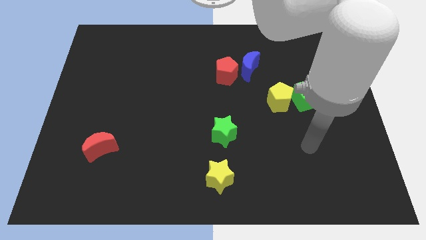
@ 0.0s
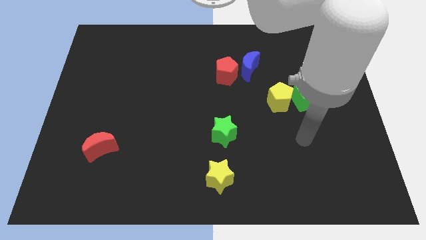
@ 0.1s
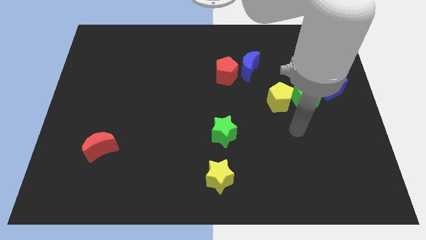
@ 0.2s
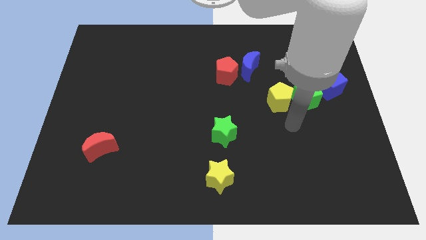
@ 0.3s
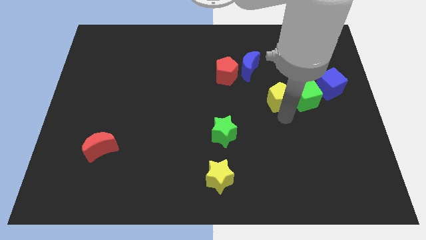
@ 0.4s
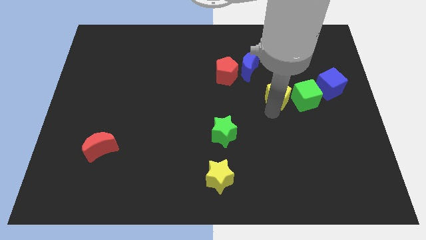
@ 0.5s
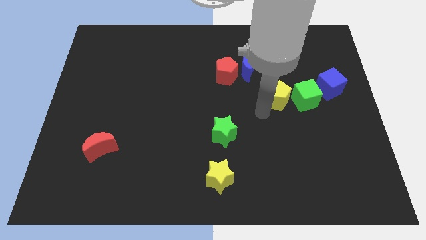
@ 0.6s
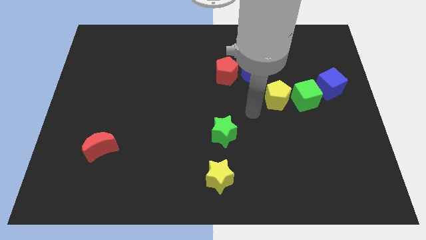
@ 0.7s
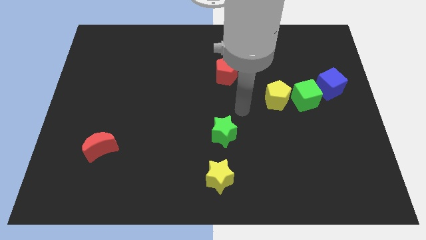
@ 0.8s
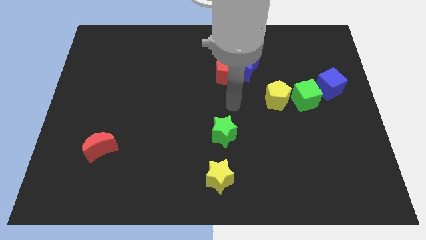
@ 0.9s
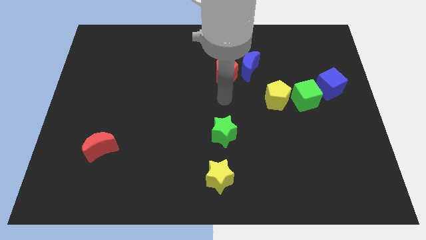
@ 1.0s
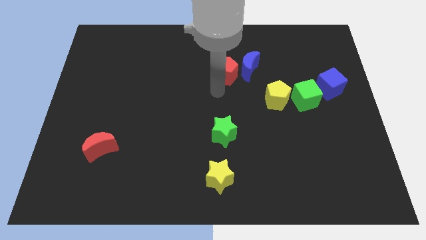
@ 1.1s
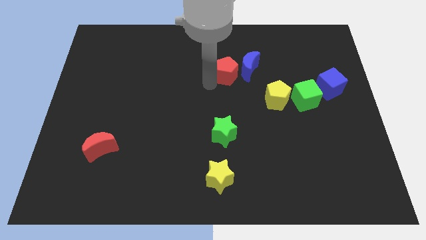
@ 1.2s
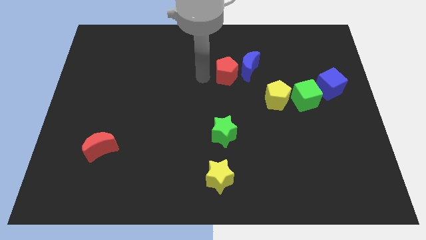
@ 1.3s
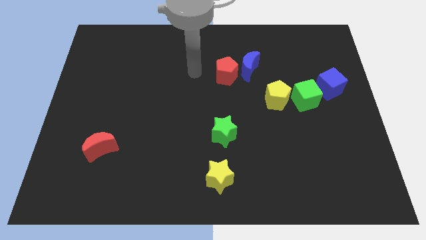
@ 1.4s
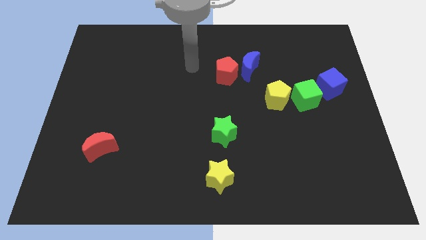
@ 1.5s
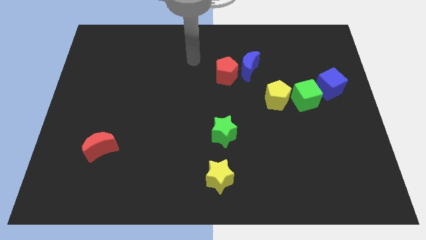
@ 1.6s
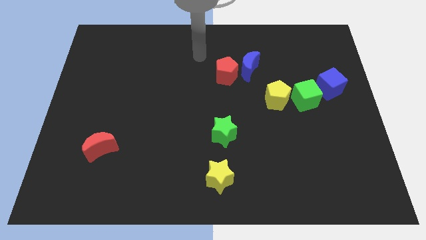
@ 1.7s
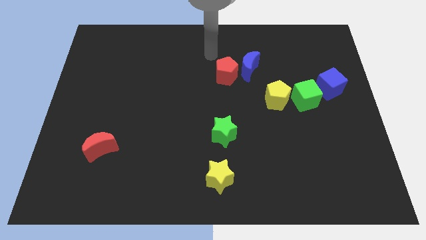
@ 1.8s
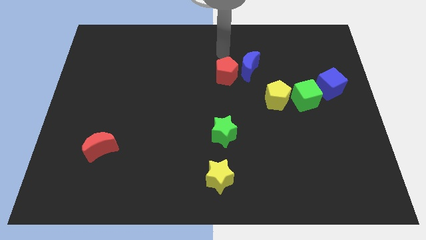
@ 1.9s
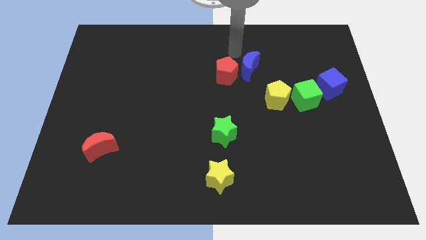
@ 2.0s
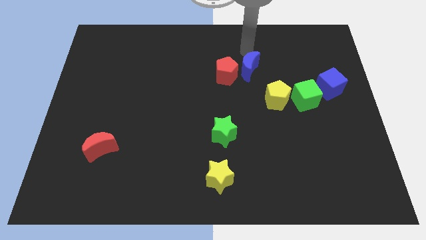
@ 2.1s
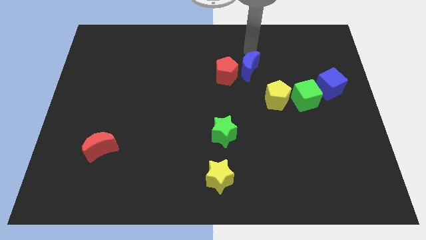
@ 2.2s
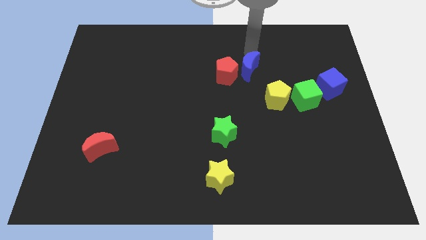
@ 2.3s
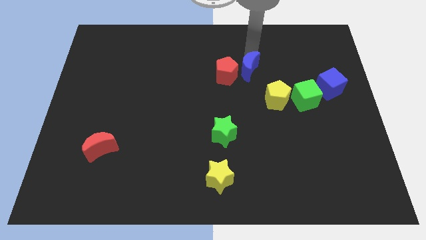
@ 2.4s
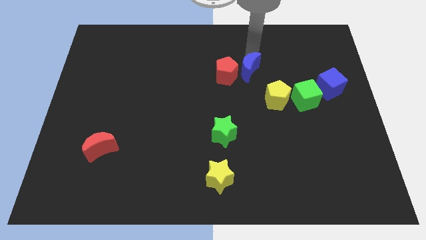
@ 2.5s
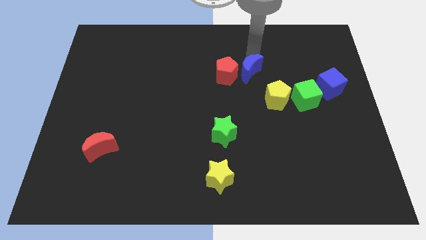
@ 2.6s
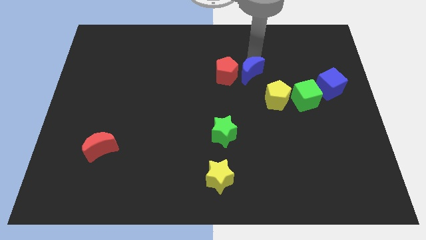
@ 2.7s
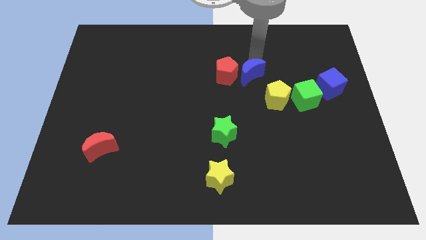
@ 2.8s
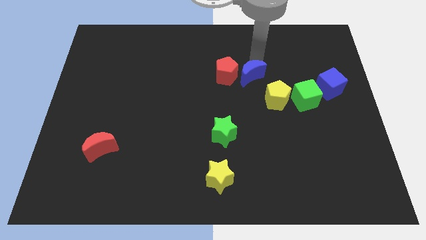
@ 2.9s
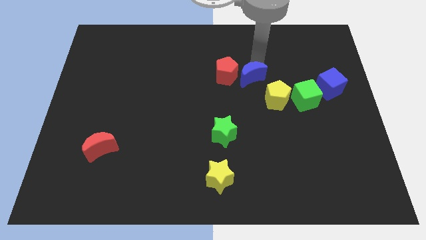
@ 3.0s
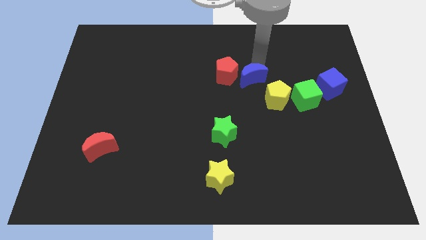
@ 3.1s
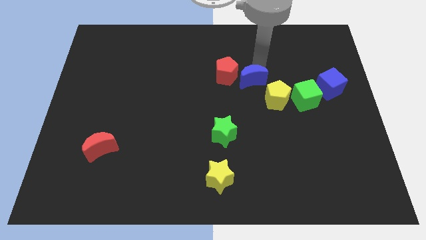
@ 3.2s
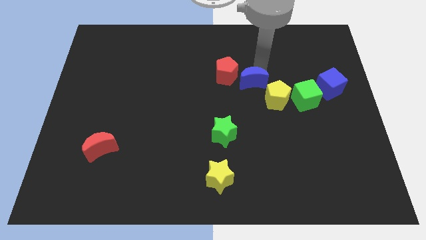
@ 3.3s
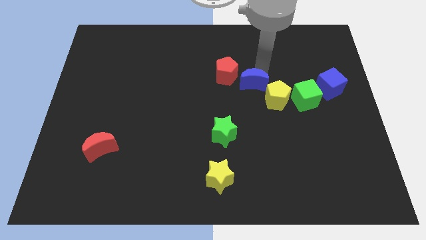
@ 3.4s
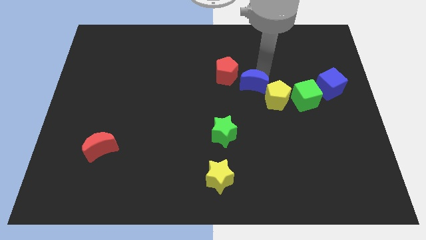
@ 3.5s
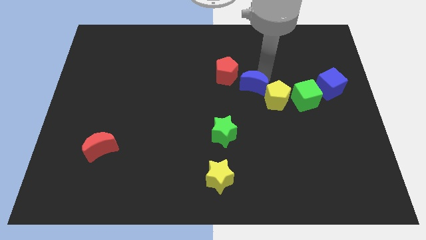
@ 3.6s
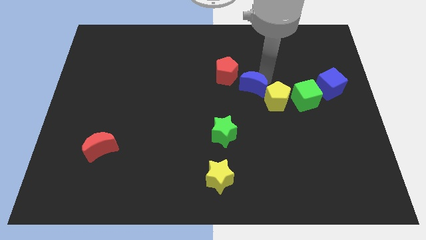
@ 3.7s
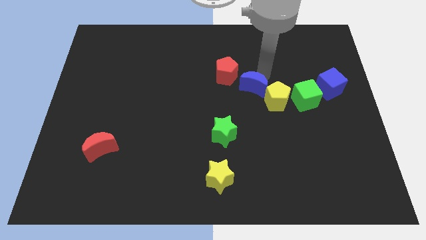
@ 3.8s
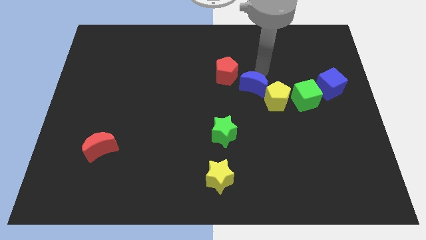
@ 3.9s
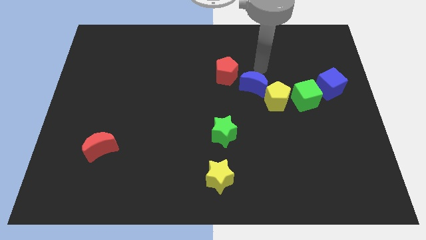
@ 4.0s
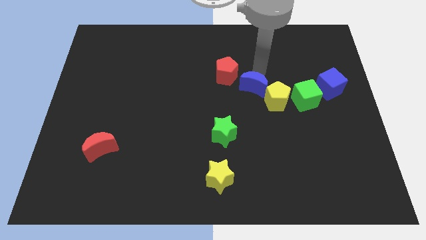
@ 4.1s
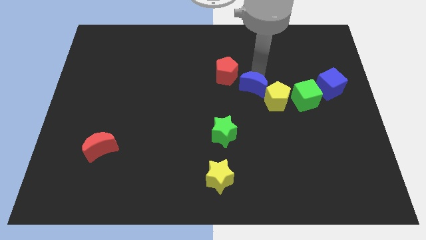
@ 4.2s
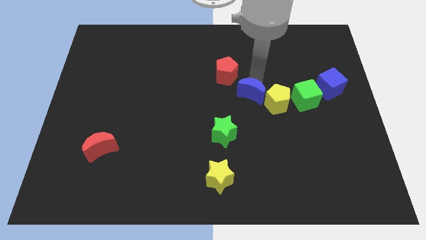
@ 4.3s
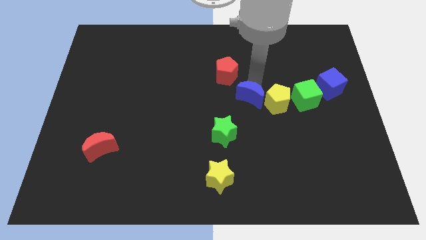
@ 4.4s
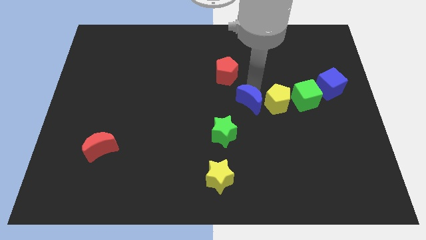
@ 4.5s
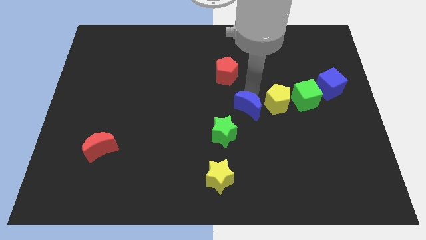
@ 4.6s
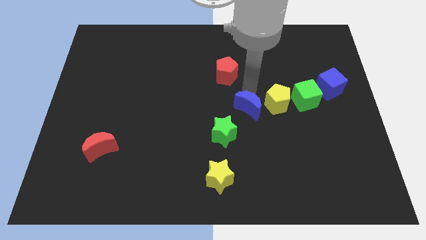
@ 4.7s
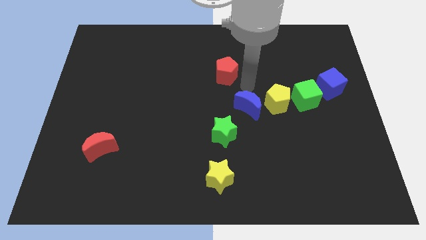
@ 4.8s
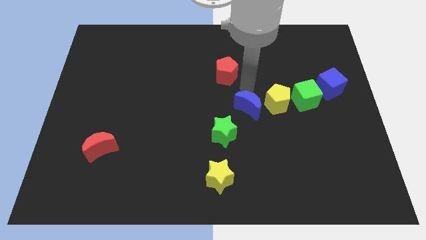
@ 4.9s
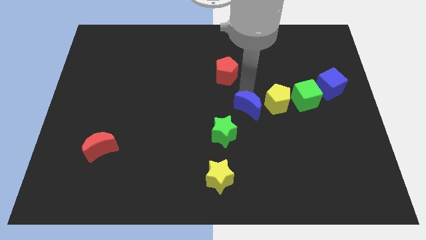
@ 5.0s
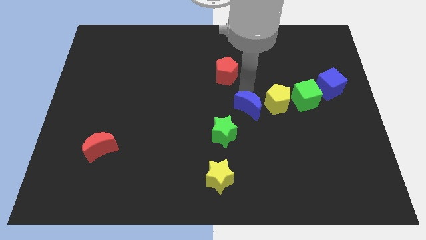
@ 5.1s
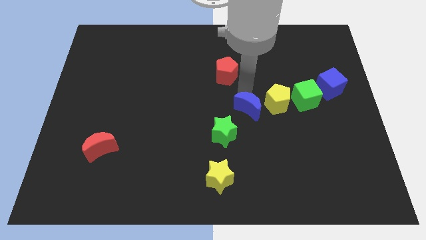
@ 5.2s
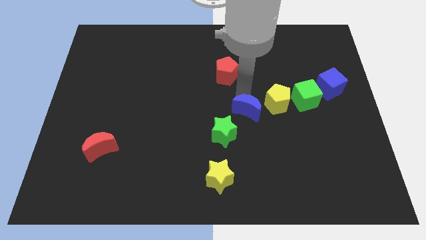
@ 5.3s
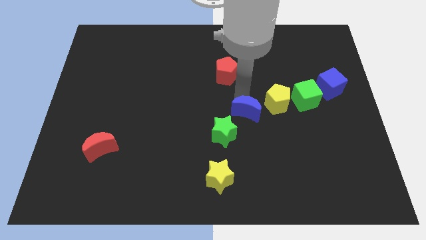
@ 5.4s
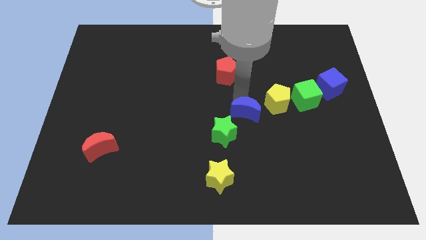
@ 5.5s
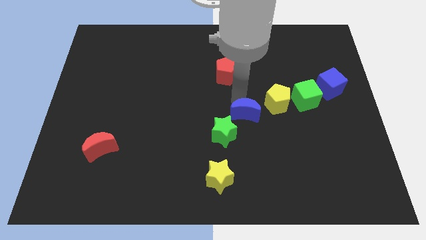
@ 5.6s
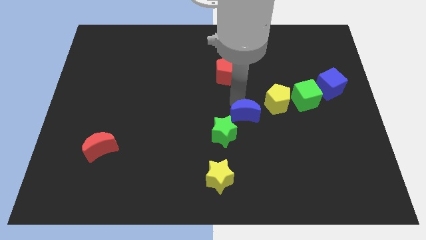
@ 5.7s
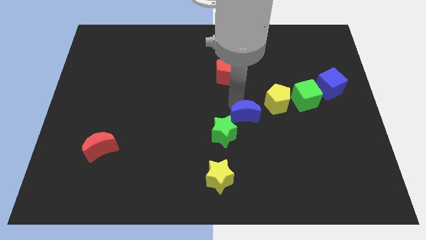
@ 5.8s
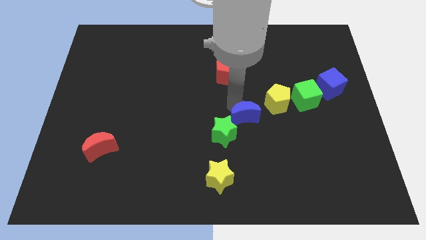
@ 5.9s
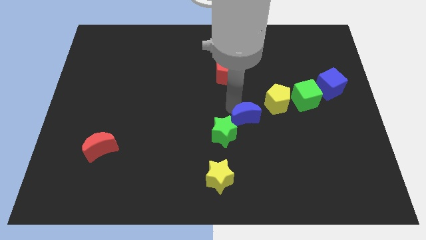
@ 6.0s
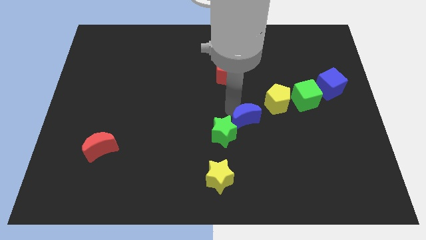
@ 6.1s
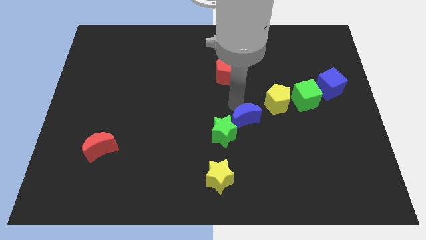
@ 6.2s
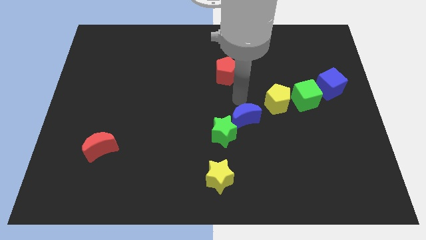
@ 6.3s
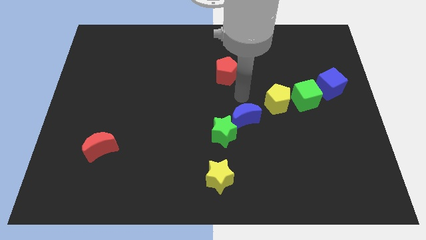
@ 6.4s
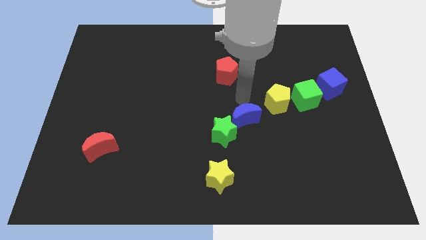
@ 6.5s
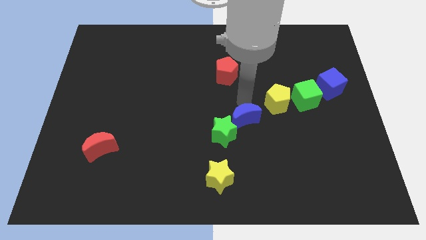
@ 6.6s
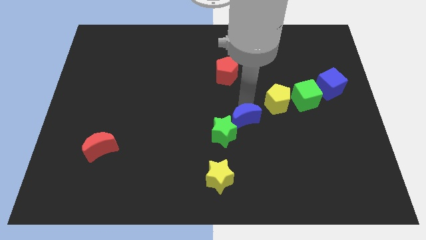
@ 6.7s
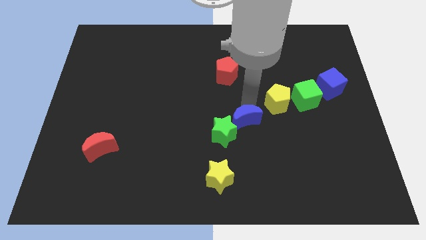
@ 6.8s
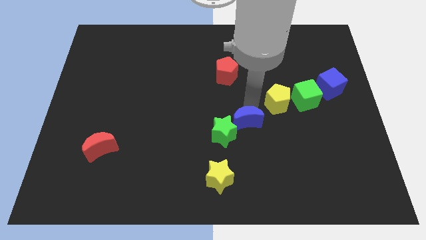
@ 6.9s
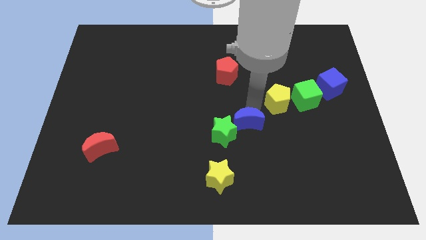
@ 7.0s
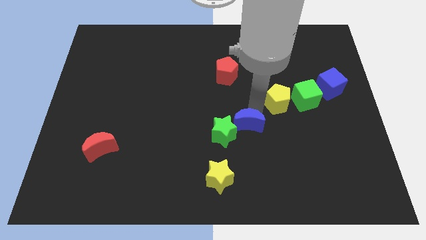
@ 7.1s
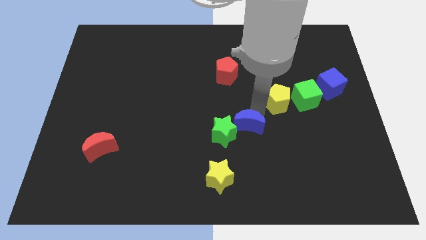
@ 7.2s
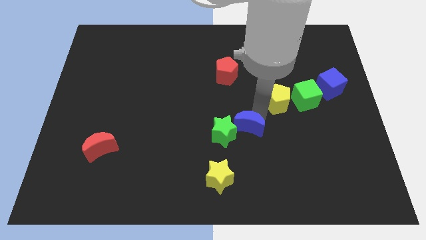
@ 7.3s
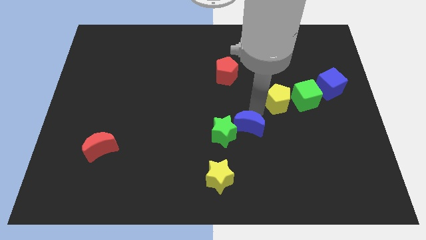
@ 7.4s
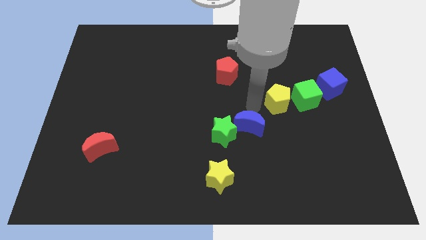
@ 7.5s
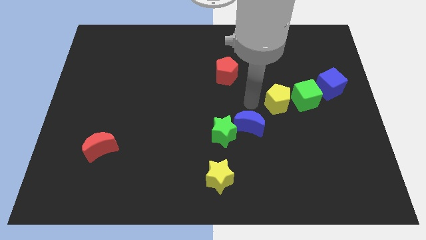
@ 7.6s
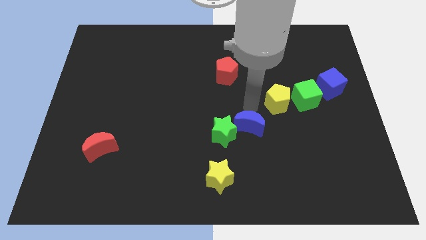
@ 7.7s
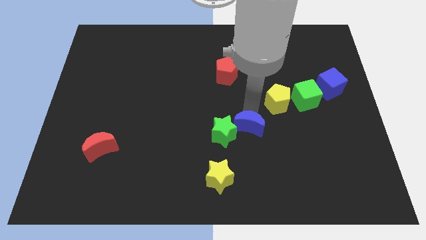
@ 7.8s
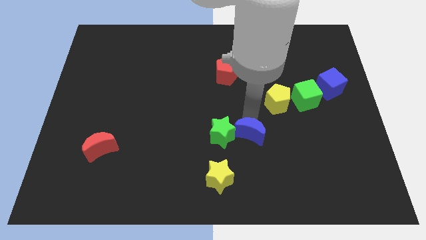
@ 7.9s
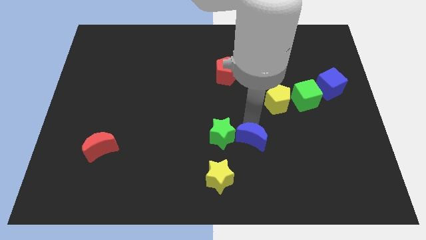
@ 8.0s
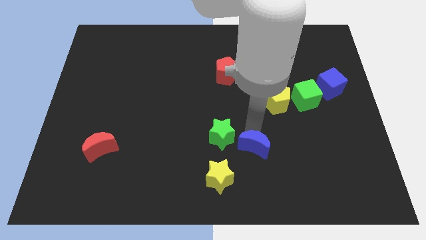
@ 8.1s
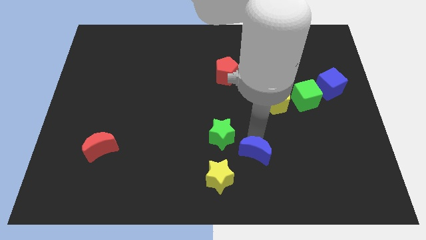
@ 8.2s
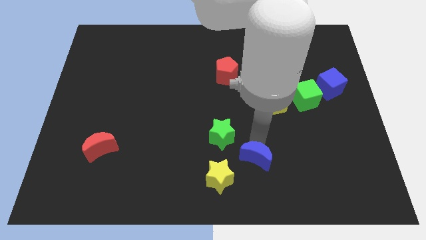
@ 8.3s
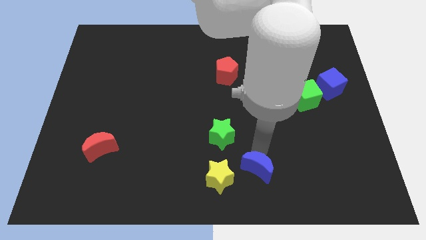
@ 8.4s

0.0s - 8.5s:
move the blue moon to the bottom side
